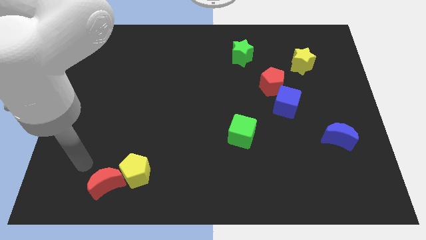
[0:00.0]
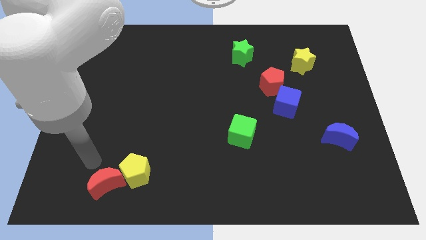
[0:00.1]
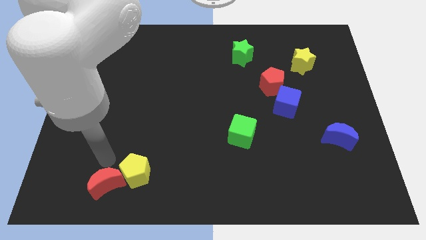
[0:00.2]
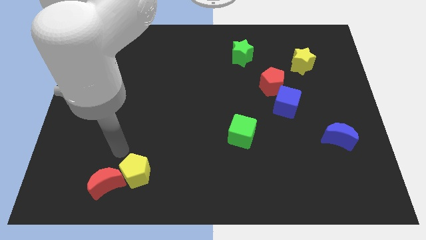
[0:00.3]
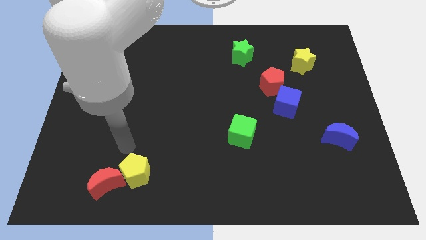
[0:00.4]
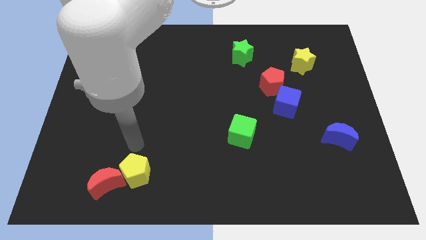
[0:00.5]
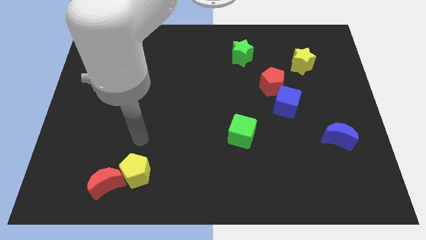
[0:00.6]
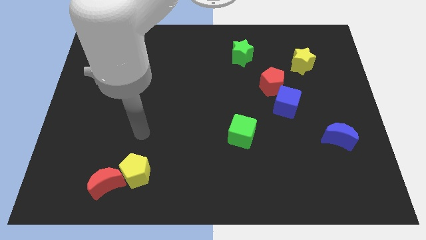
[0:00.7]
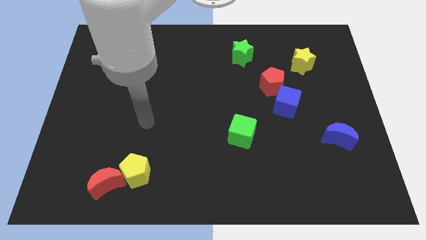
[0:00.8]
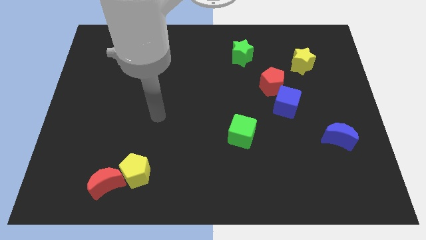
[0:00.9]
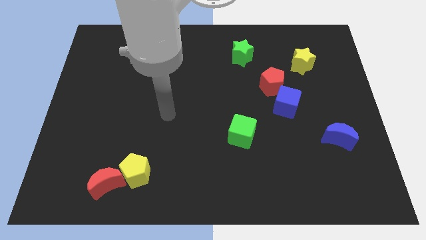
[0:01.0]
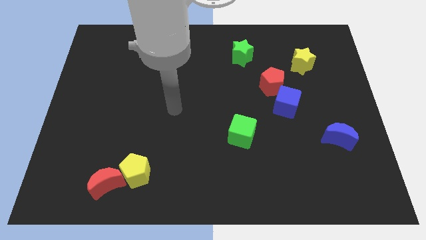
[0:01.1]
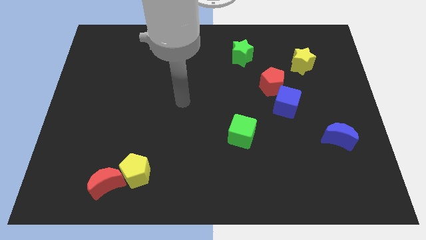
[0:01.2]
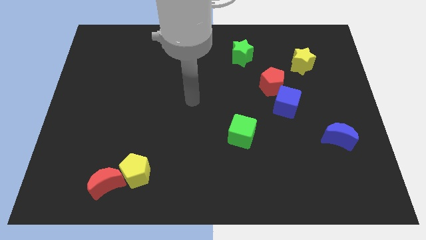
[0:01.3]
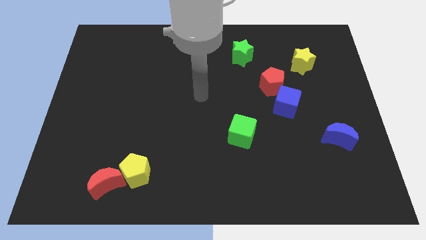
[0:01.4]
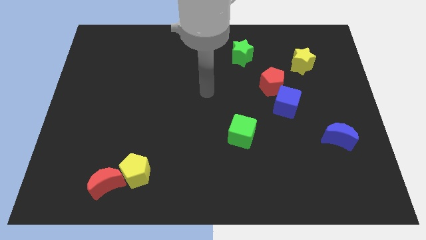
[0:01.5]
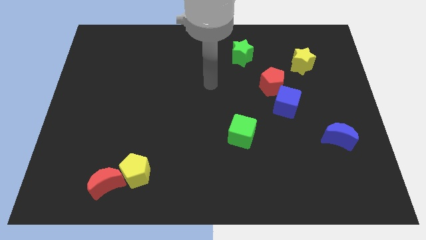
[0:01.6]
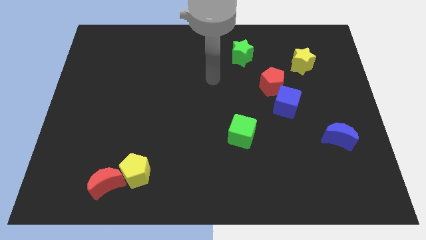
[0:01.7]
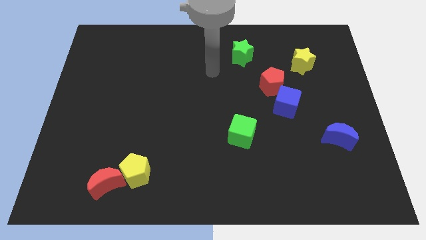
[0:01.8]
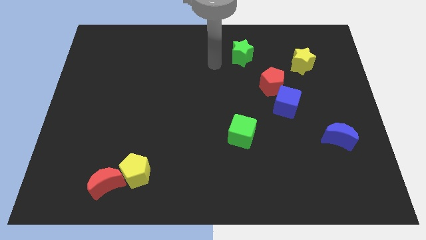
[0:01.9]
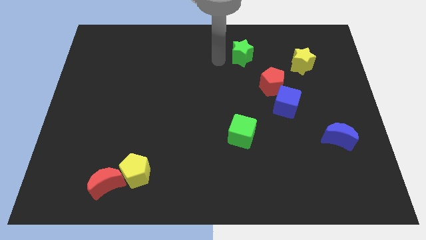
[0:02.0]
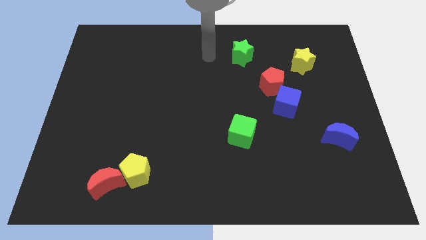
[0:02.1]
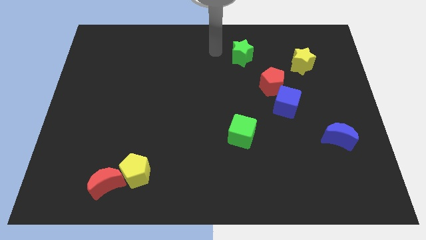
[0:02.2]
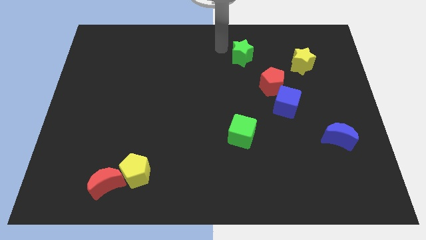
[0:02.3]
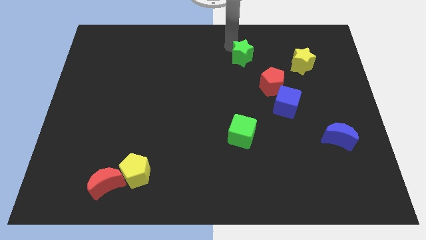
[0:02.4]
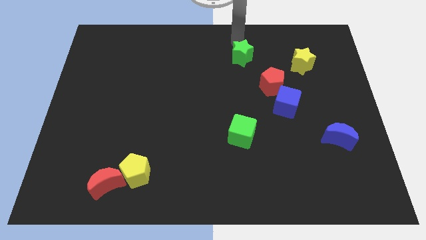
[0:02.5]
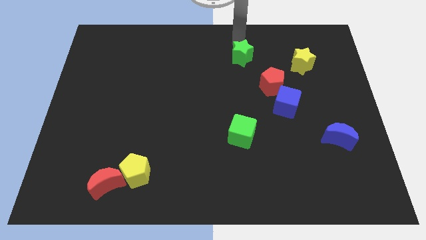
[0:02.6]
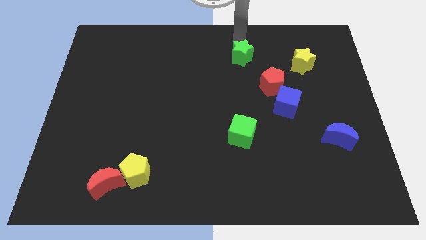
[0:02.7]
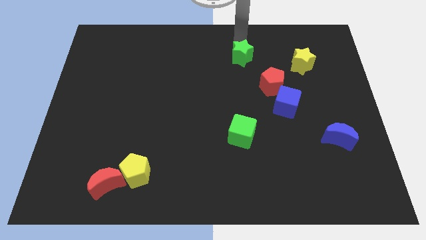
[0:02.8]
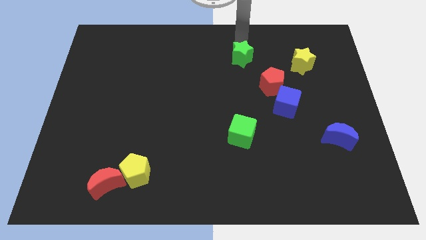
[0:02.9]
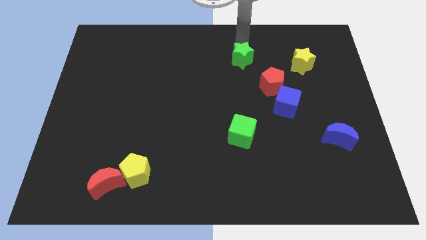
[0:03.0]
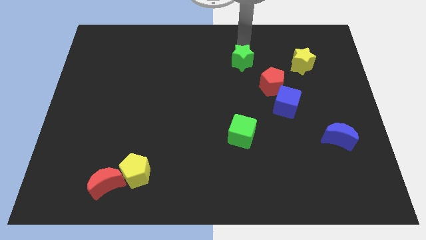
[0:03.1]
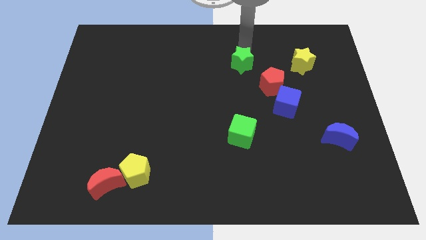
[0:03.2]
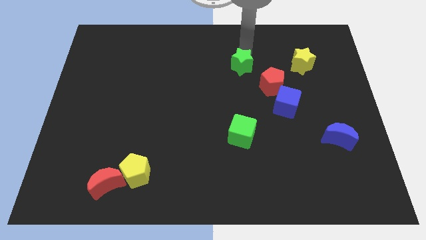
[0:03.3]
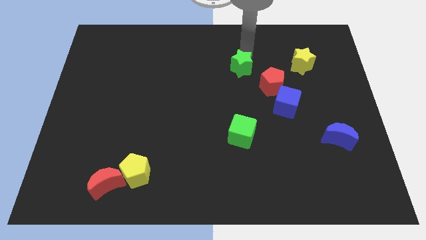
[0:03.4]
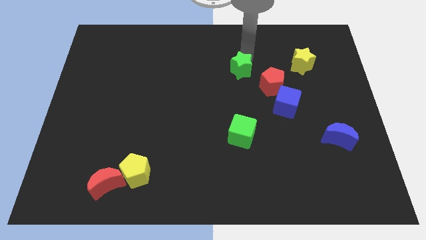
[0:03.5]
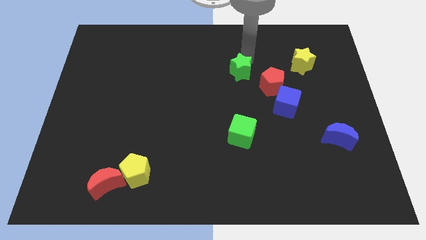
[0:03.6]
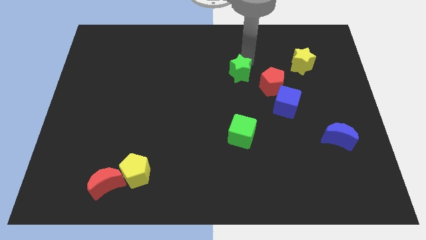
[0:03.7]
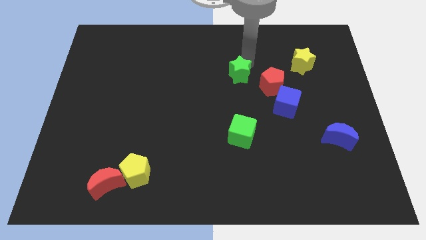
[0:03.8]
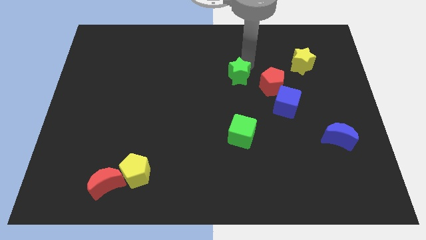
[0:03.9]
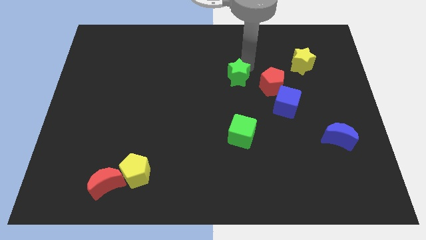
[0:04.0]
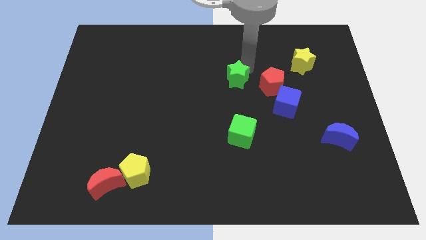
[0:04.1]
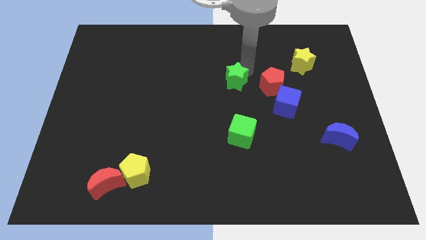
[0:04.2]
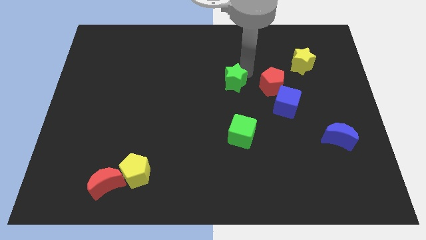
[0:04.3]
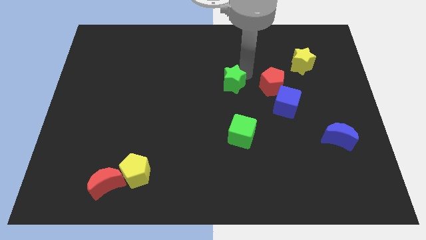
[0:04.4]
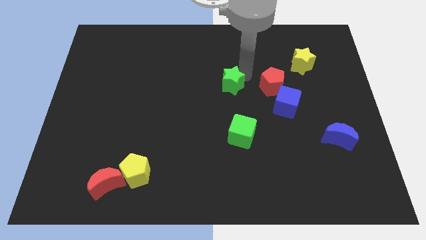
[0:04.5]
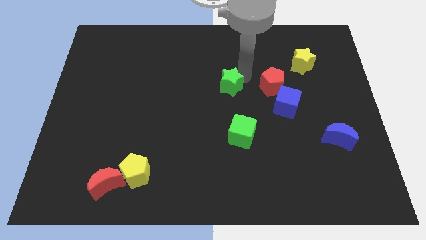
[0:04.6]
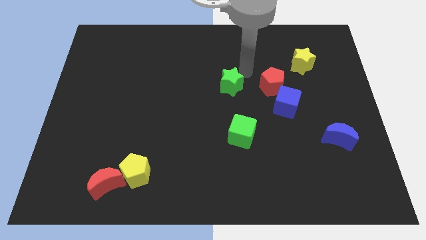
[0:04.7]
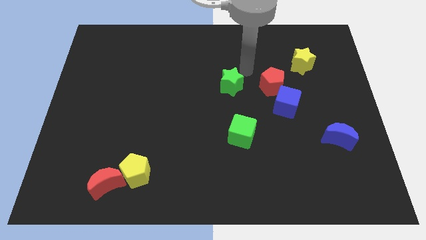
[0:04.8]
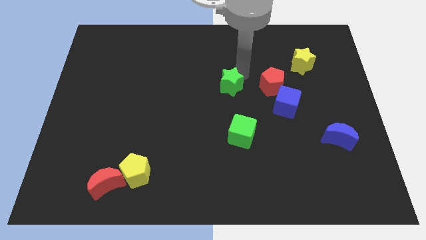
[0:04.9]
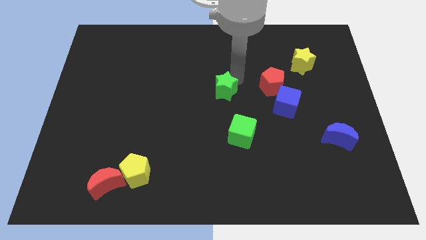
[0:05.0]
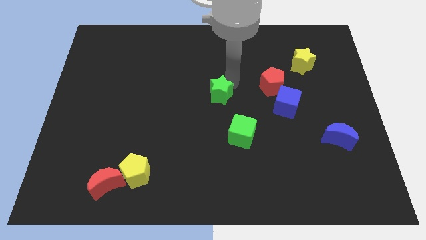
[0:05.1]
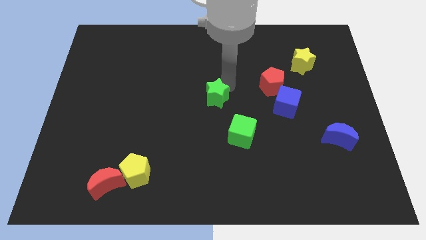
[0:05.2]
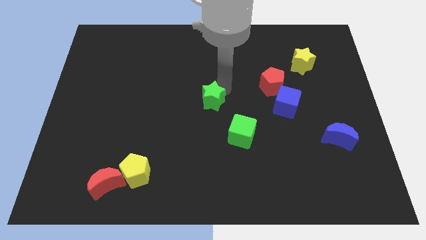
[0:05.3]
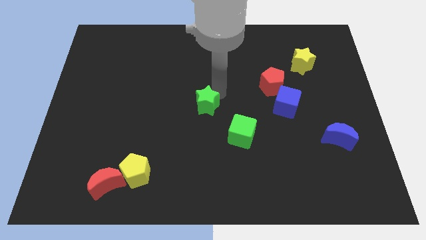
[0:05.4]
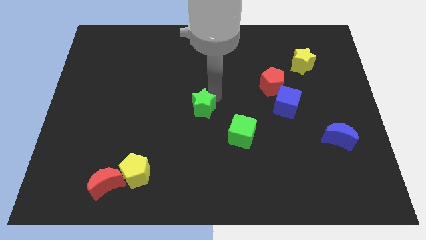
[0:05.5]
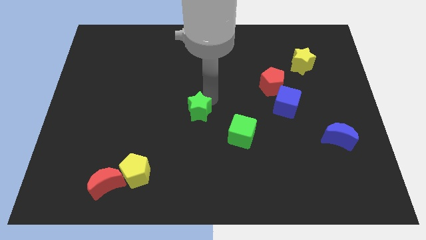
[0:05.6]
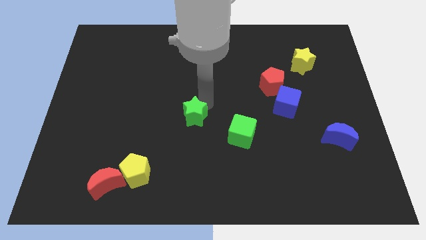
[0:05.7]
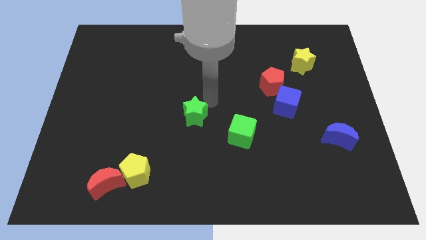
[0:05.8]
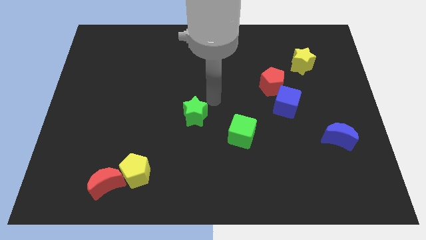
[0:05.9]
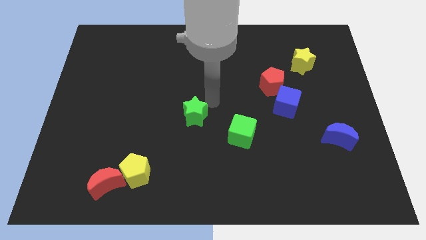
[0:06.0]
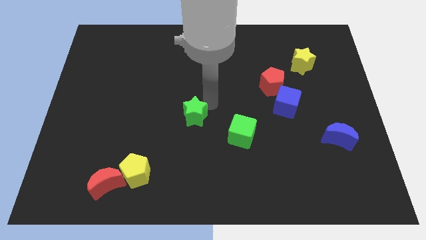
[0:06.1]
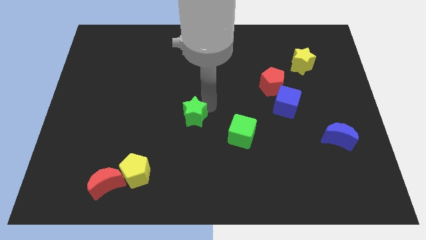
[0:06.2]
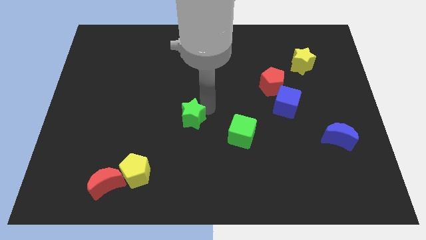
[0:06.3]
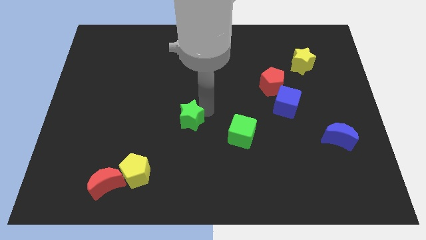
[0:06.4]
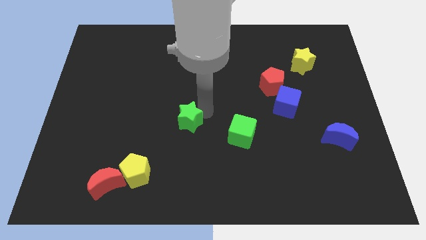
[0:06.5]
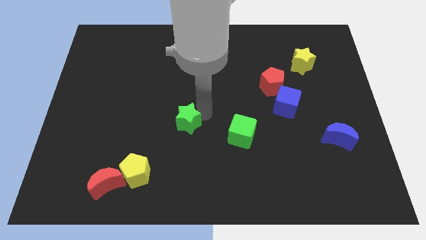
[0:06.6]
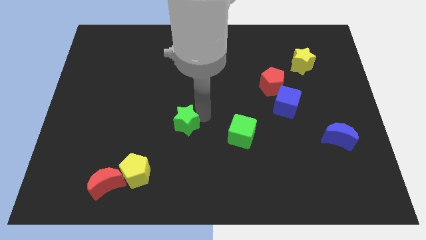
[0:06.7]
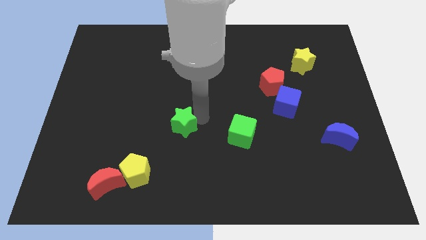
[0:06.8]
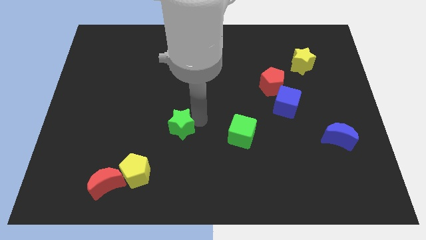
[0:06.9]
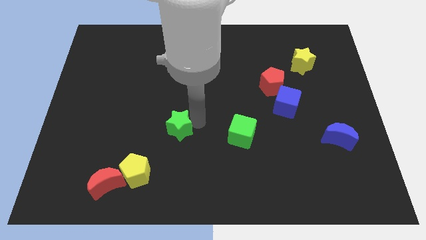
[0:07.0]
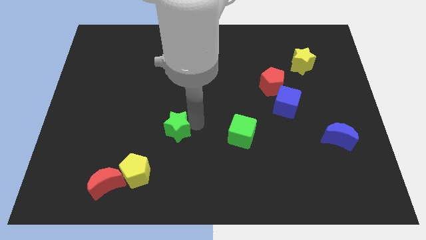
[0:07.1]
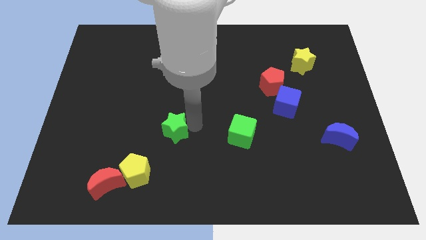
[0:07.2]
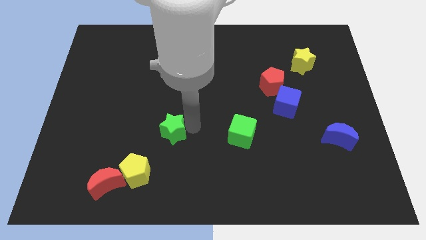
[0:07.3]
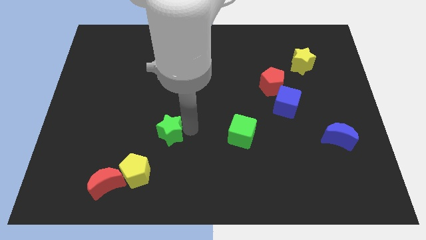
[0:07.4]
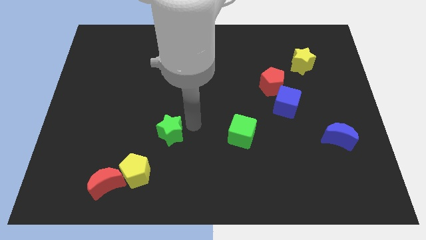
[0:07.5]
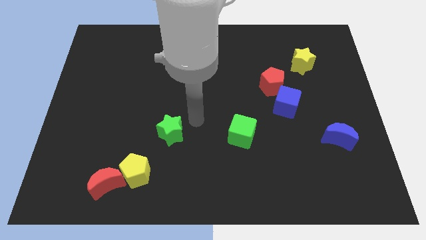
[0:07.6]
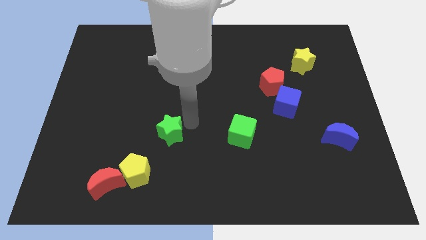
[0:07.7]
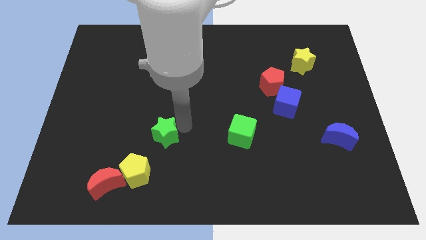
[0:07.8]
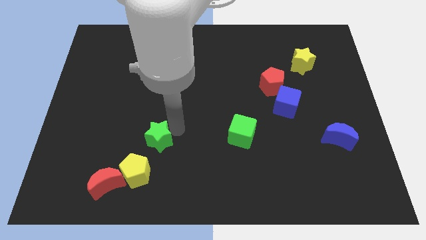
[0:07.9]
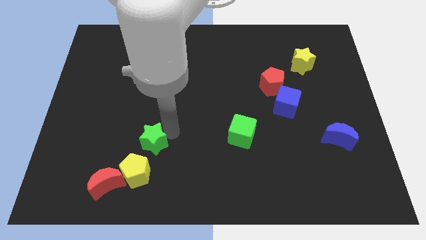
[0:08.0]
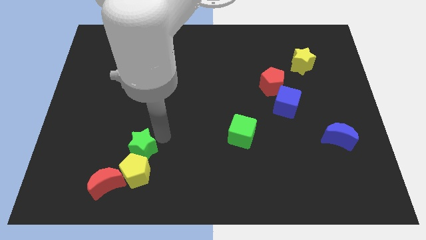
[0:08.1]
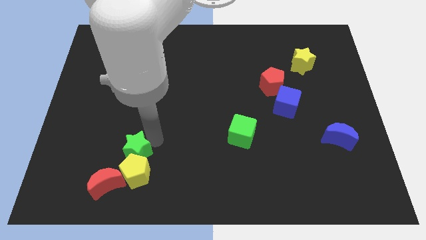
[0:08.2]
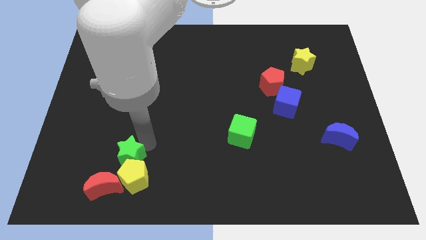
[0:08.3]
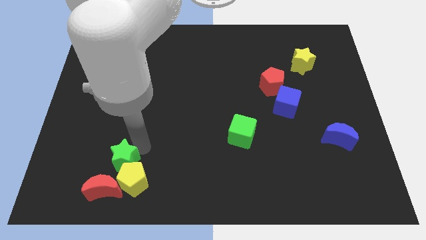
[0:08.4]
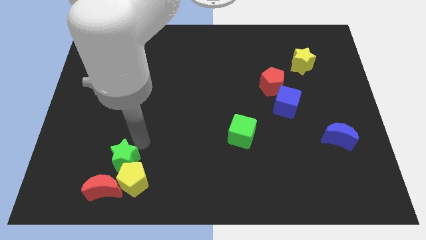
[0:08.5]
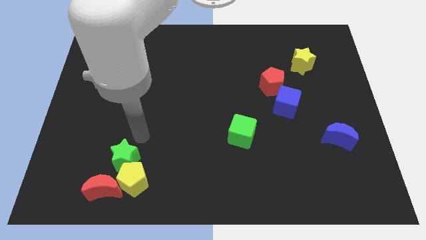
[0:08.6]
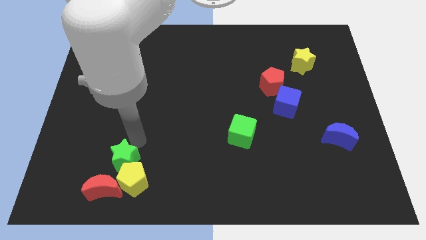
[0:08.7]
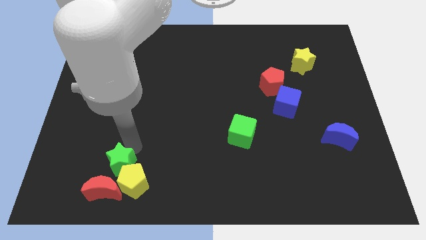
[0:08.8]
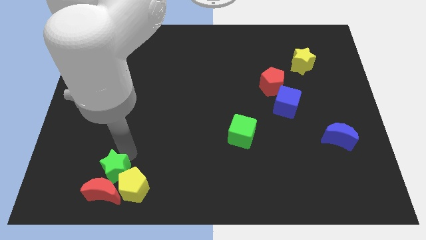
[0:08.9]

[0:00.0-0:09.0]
push the green star next to the red moon
